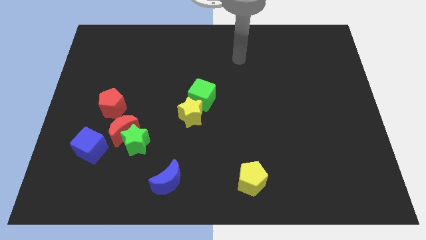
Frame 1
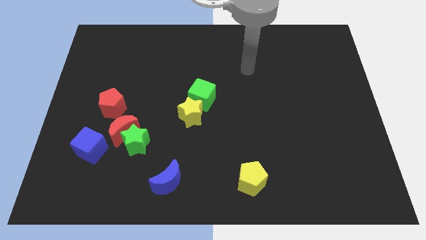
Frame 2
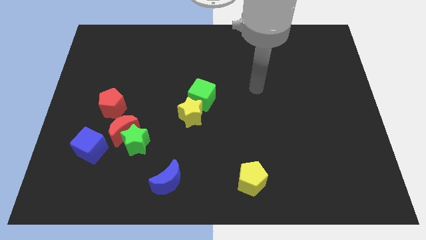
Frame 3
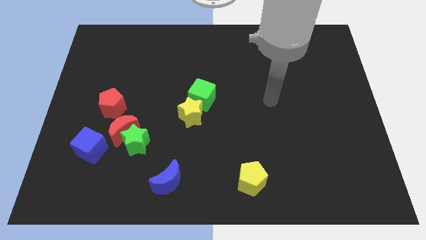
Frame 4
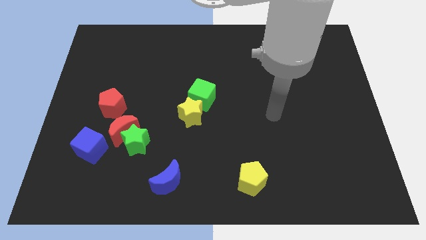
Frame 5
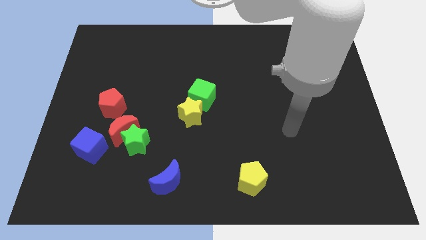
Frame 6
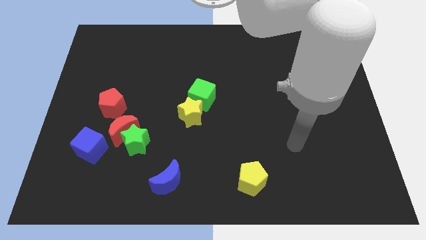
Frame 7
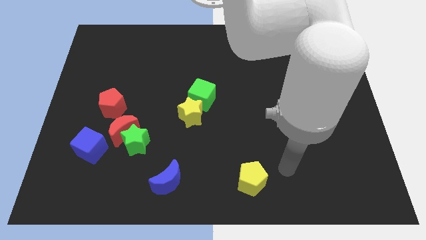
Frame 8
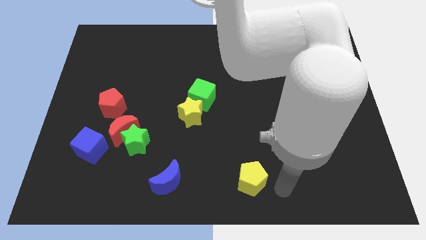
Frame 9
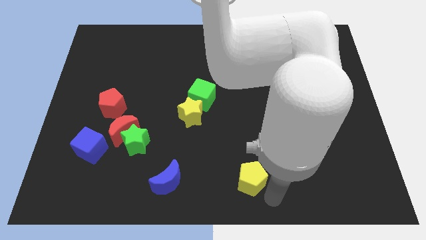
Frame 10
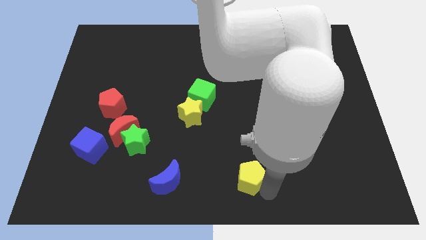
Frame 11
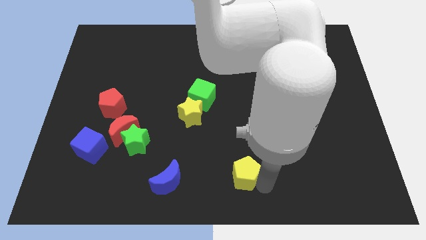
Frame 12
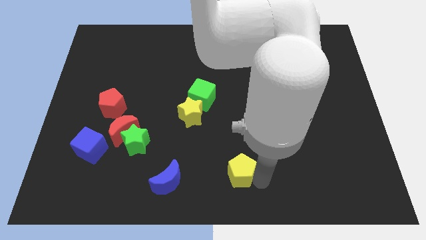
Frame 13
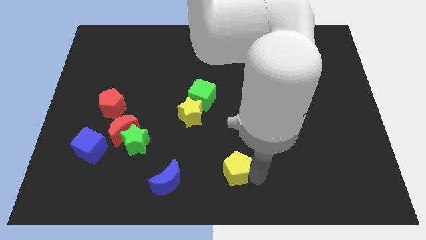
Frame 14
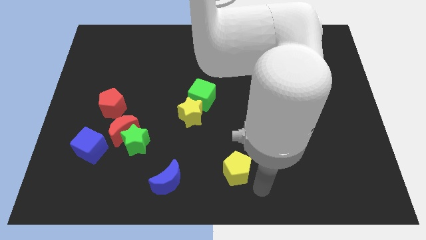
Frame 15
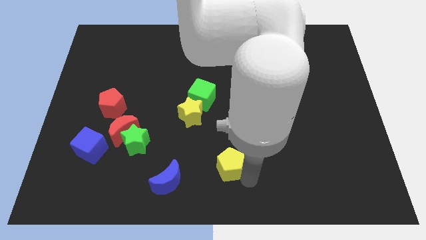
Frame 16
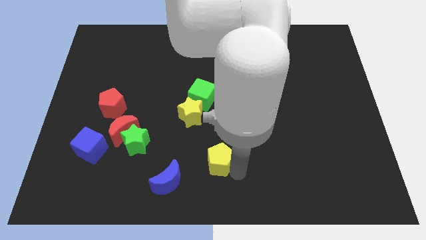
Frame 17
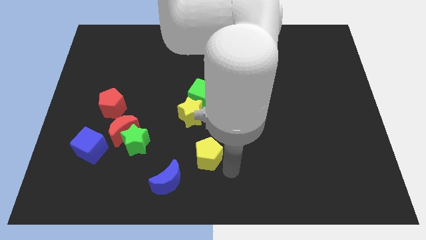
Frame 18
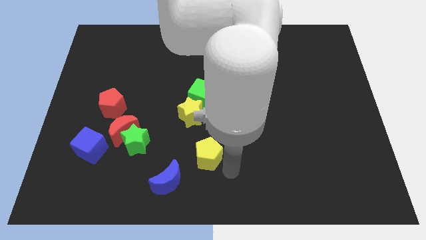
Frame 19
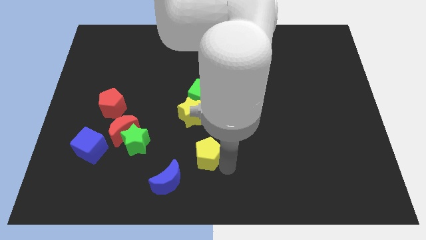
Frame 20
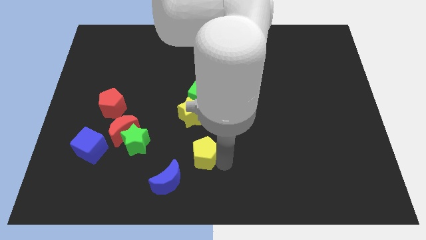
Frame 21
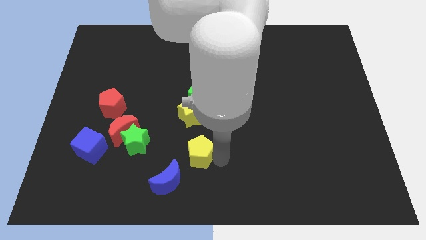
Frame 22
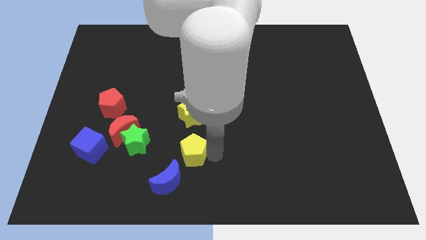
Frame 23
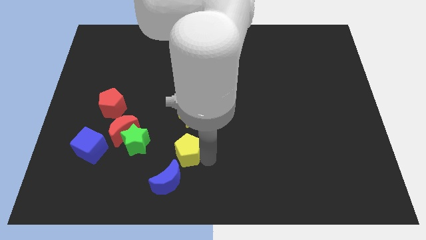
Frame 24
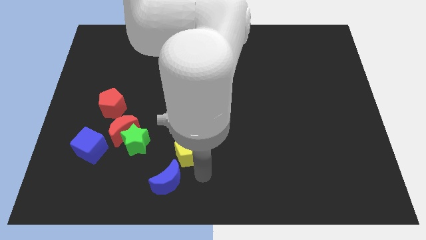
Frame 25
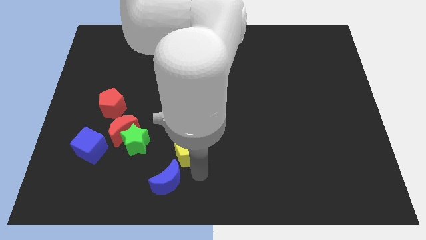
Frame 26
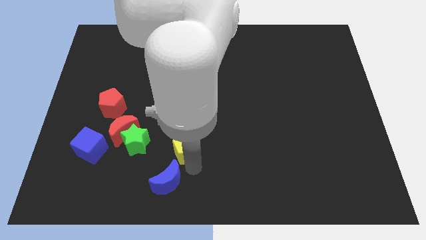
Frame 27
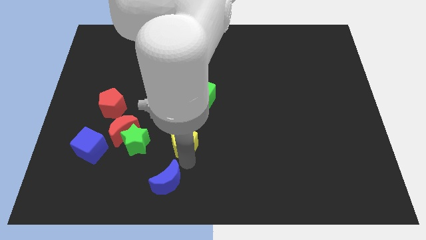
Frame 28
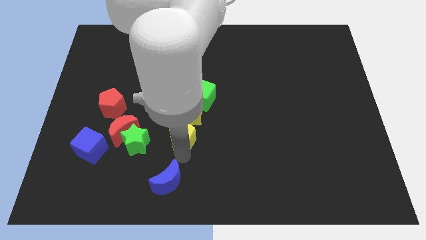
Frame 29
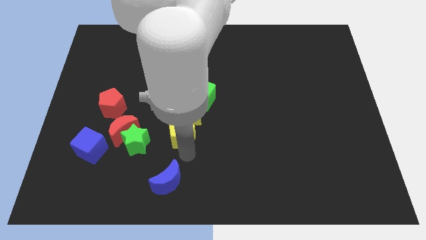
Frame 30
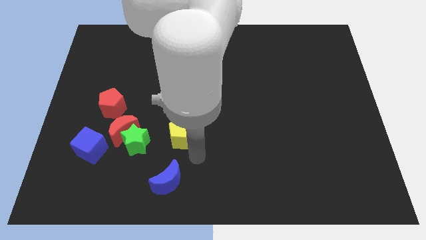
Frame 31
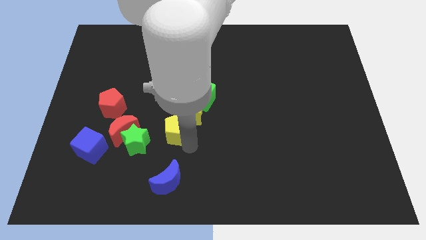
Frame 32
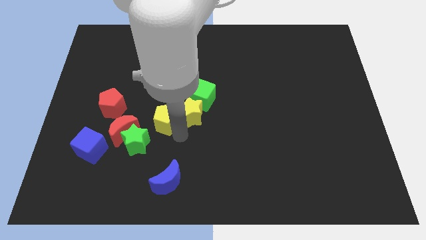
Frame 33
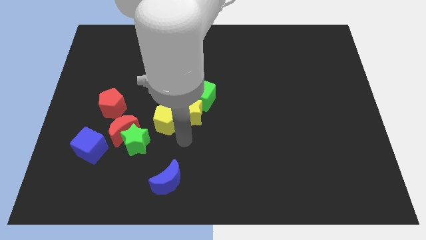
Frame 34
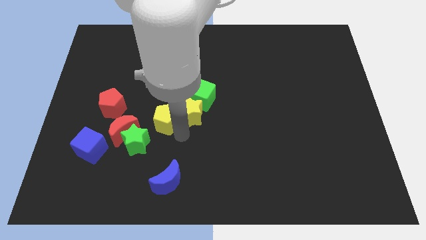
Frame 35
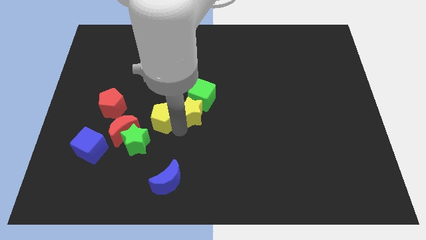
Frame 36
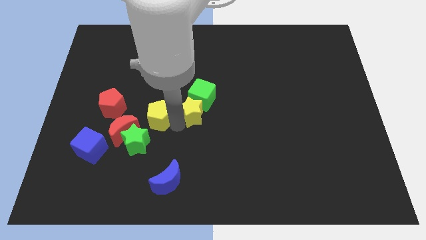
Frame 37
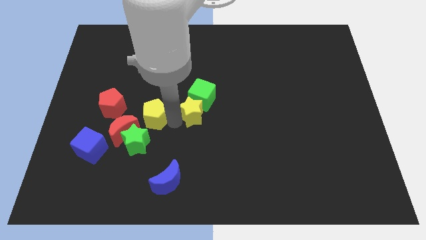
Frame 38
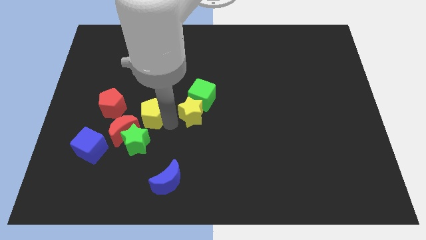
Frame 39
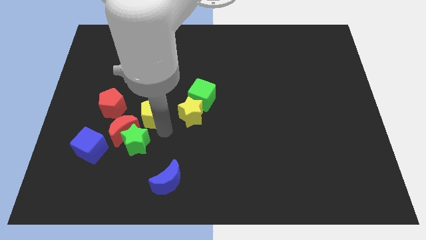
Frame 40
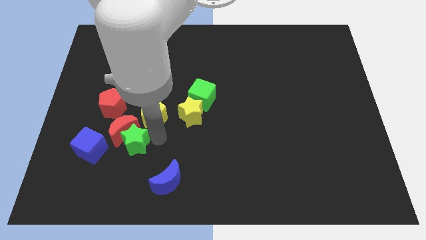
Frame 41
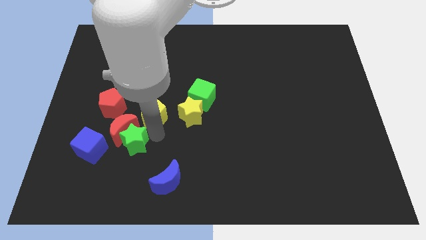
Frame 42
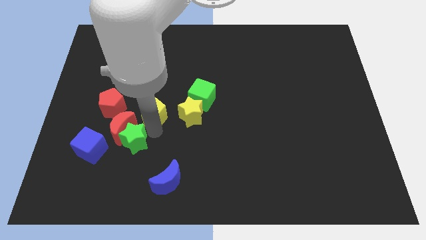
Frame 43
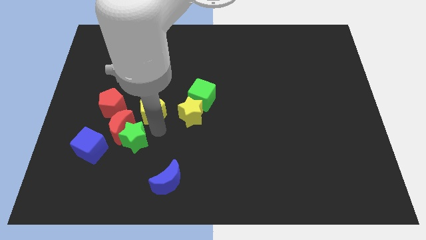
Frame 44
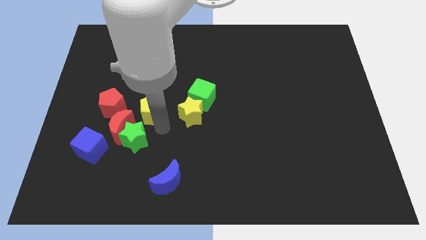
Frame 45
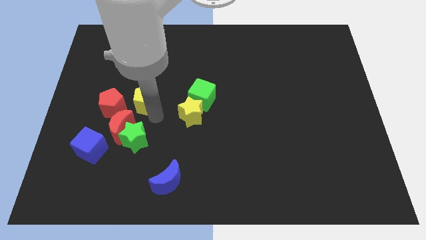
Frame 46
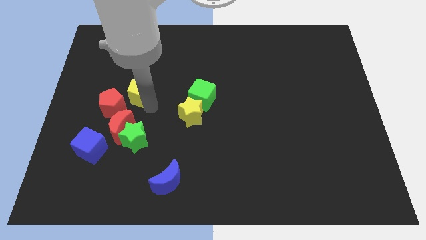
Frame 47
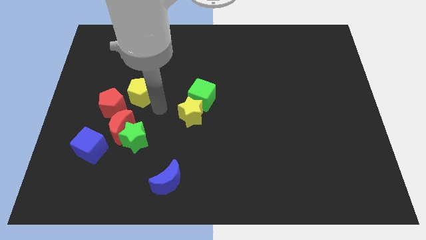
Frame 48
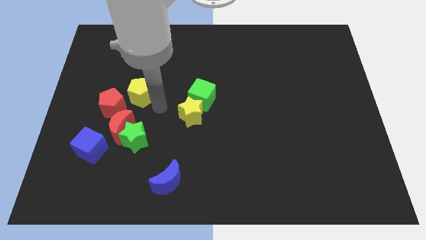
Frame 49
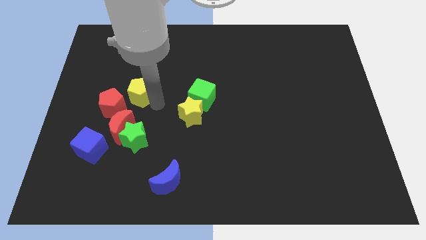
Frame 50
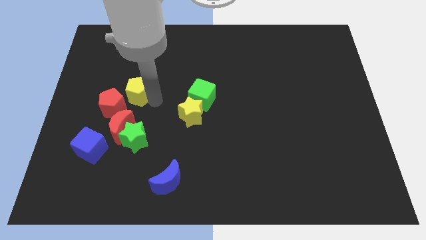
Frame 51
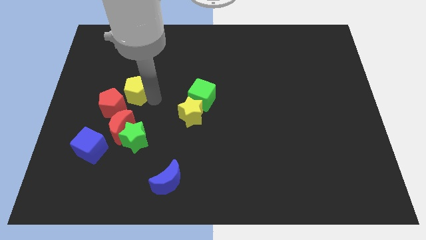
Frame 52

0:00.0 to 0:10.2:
slide the yellow pentagon above the red pentagon

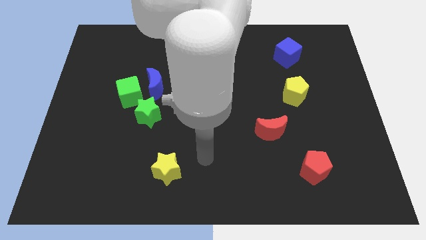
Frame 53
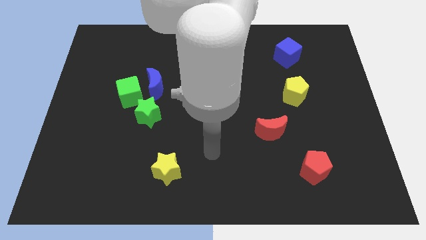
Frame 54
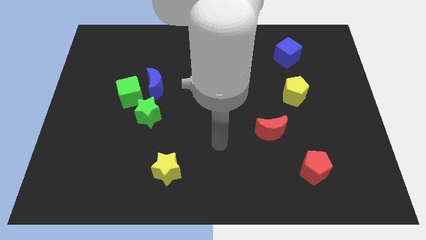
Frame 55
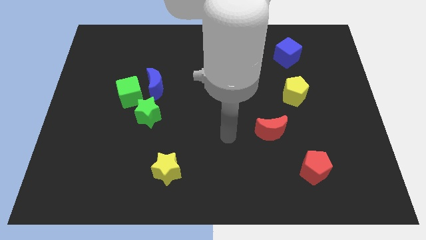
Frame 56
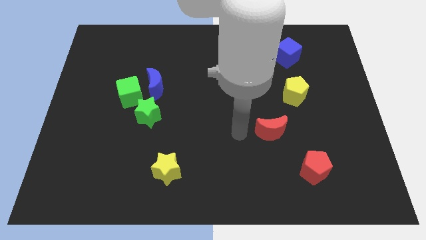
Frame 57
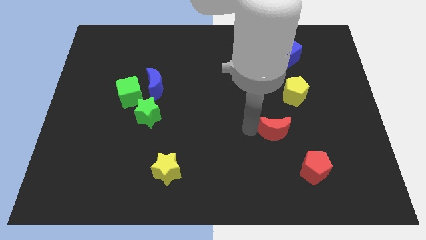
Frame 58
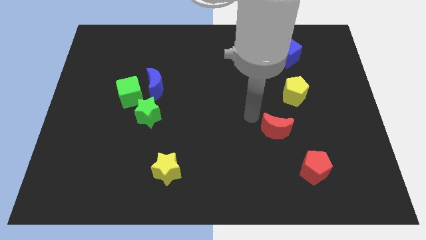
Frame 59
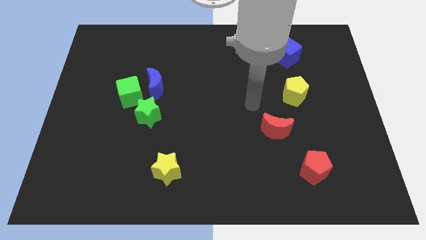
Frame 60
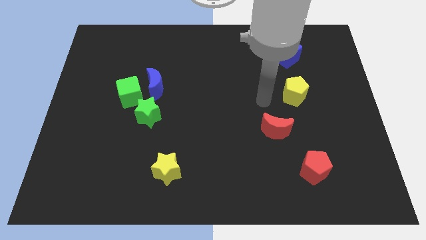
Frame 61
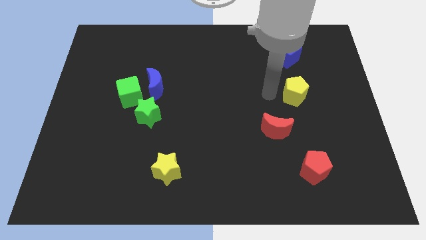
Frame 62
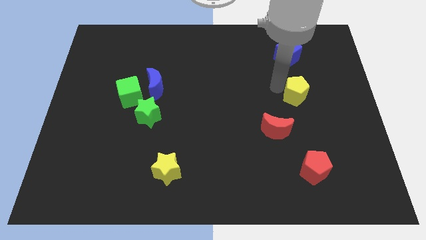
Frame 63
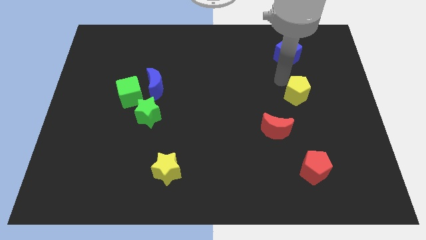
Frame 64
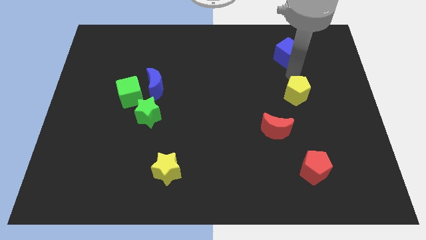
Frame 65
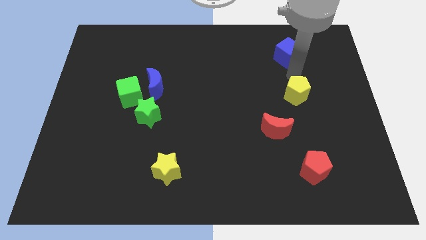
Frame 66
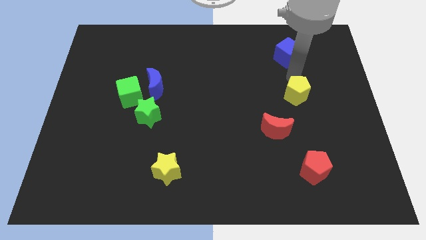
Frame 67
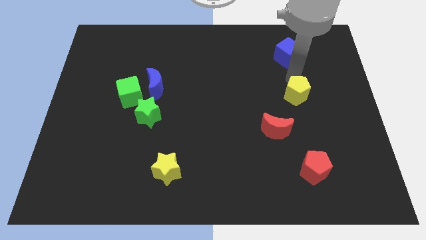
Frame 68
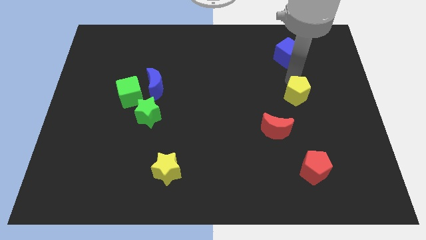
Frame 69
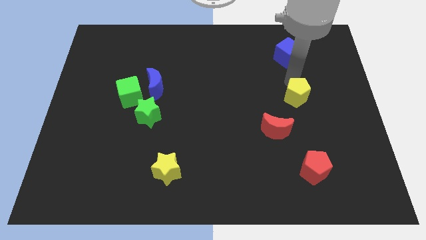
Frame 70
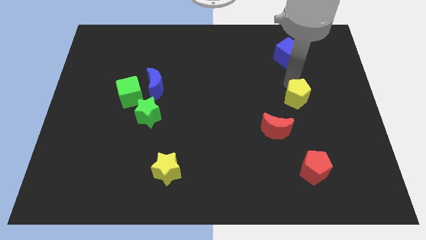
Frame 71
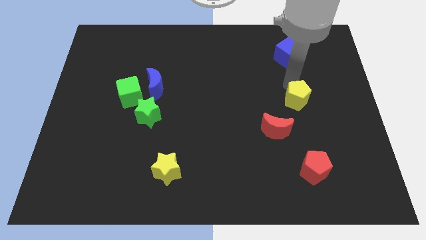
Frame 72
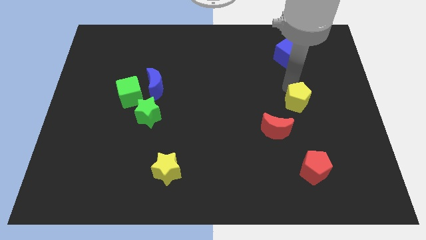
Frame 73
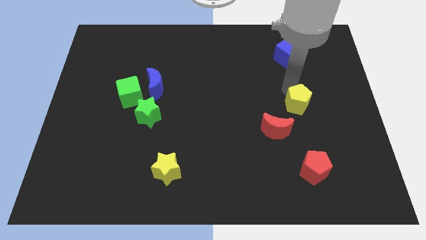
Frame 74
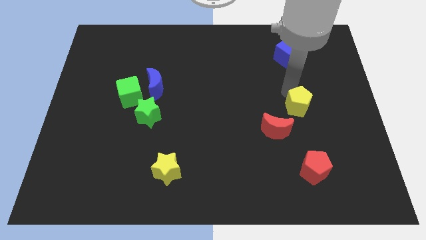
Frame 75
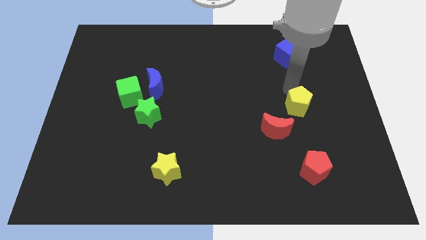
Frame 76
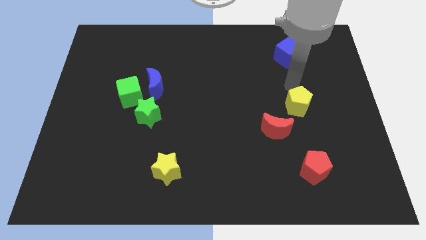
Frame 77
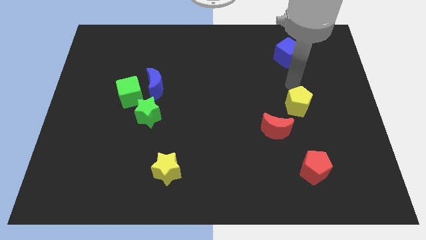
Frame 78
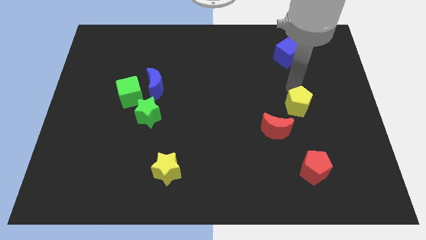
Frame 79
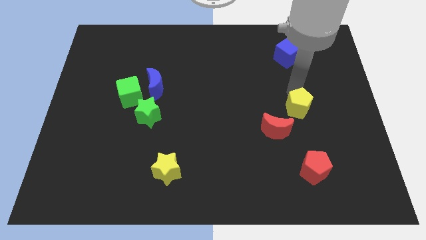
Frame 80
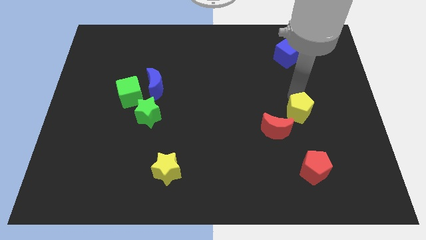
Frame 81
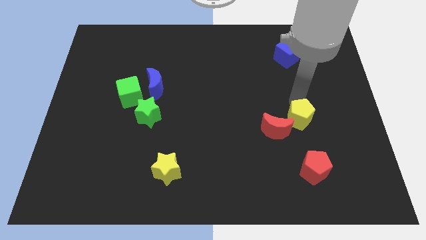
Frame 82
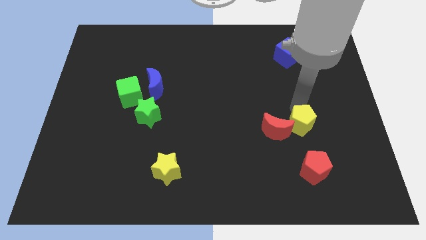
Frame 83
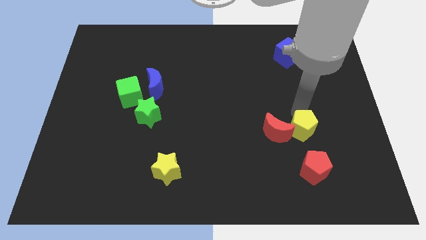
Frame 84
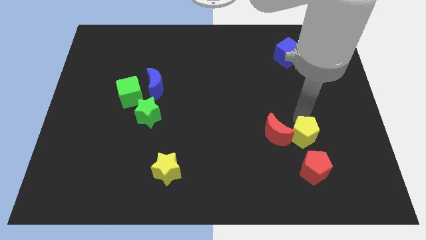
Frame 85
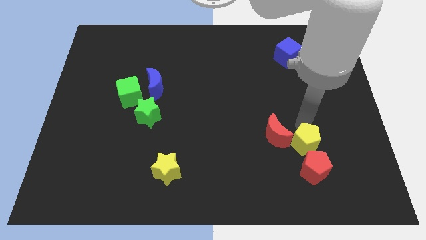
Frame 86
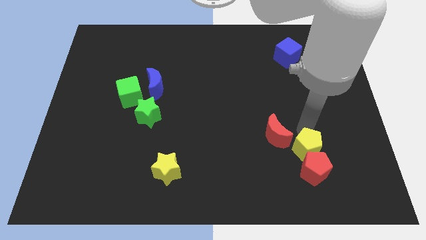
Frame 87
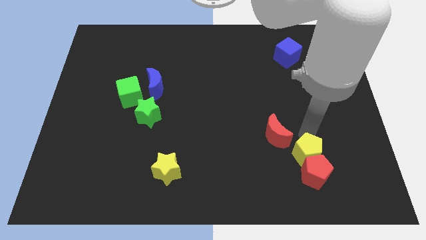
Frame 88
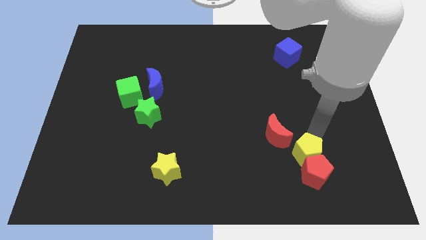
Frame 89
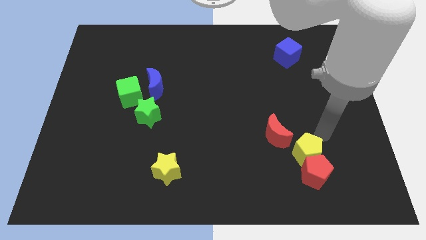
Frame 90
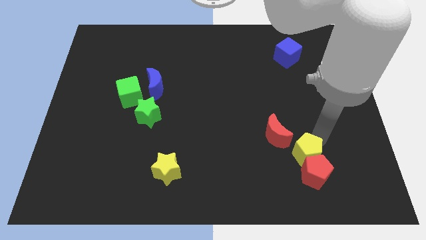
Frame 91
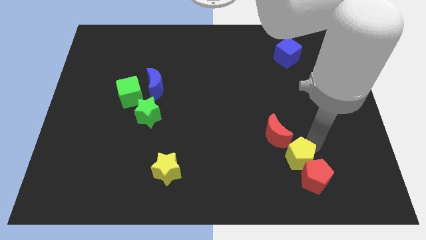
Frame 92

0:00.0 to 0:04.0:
put the yellow pentagon below the red moon
